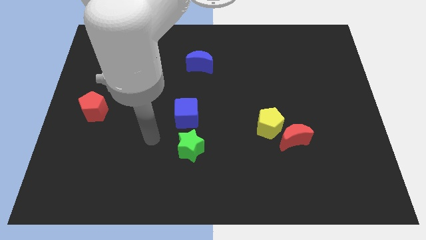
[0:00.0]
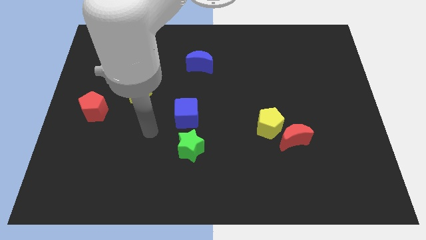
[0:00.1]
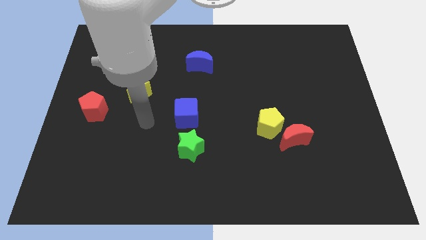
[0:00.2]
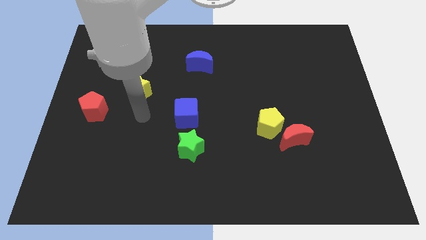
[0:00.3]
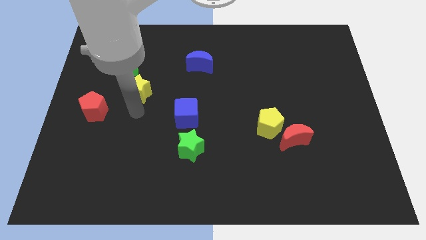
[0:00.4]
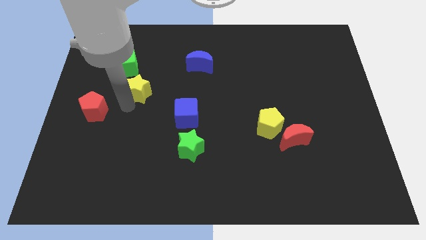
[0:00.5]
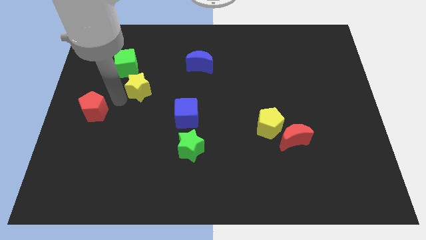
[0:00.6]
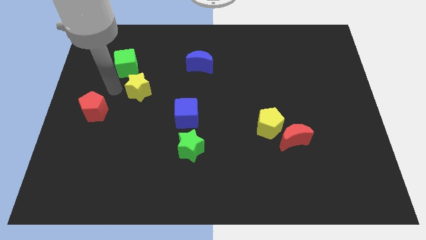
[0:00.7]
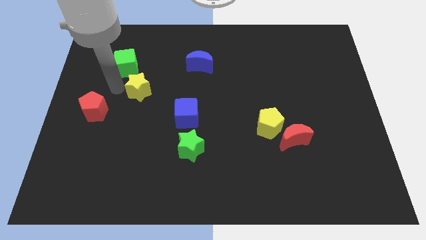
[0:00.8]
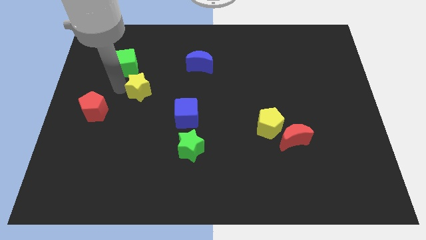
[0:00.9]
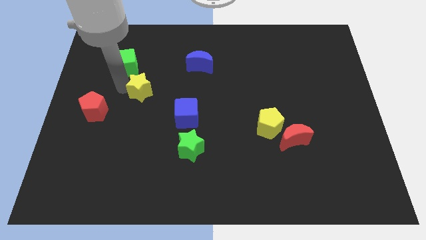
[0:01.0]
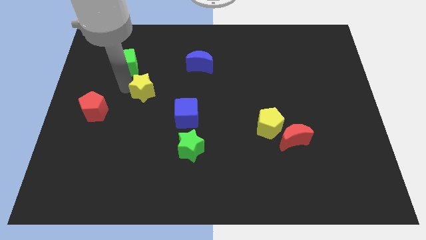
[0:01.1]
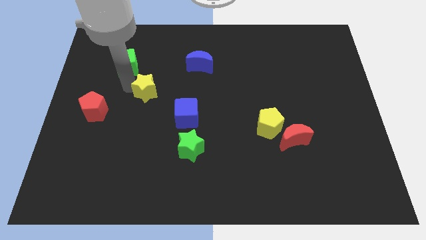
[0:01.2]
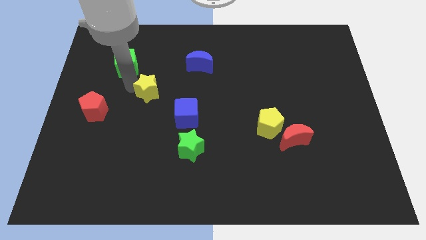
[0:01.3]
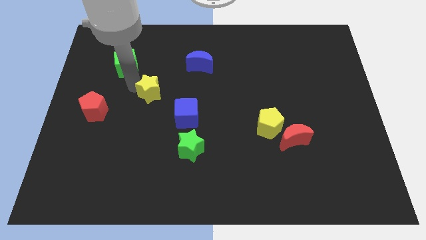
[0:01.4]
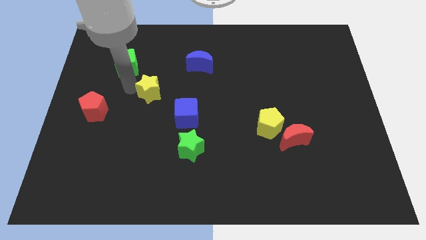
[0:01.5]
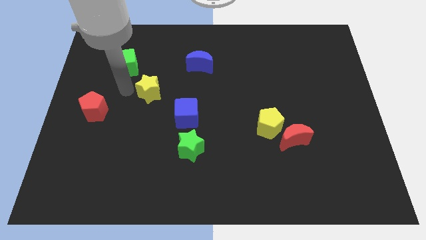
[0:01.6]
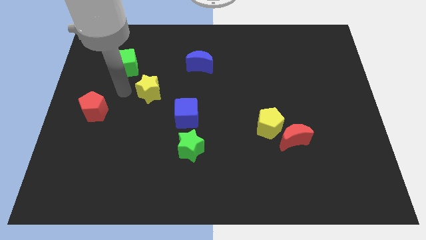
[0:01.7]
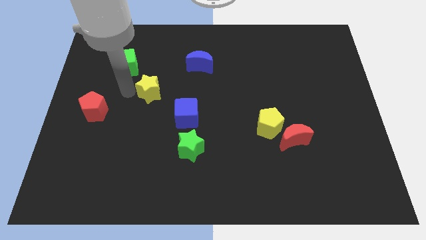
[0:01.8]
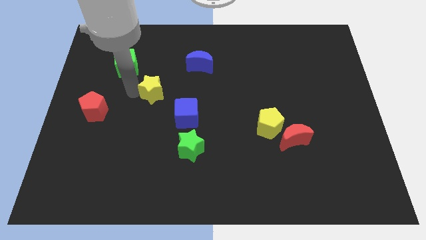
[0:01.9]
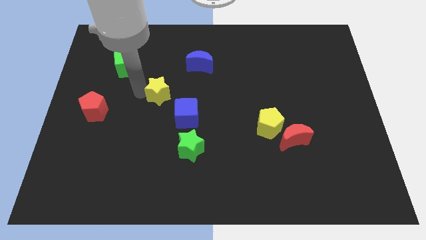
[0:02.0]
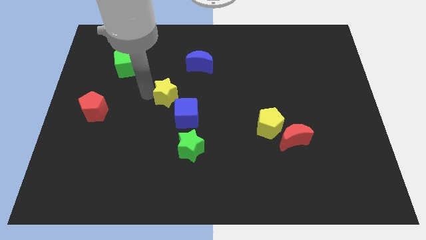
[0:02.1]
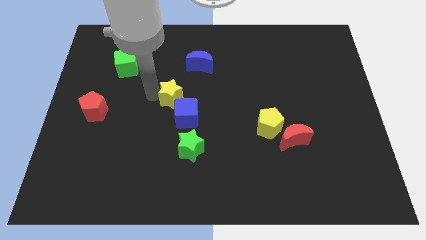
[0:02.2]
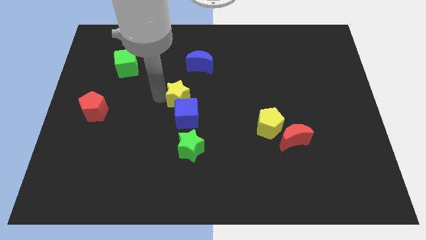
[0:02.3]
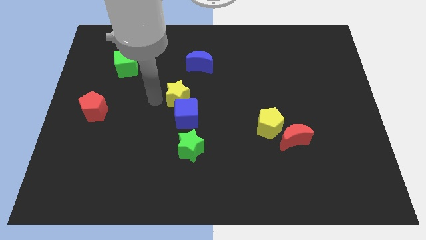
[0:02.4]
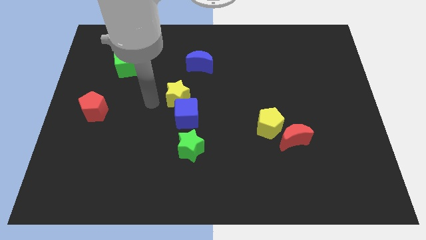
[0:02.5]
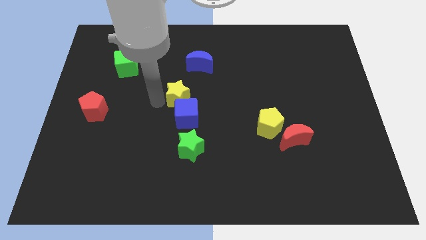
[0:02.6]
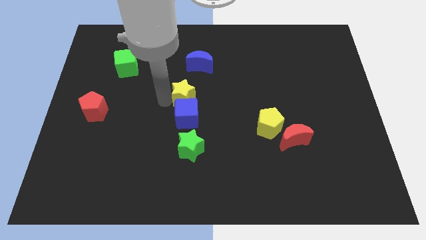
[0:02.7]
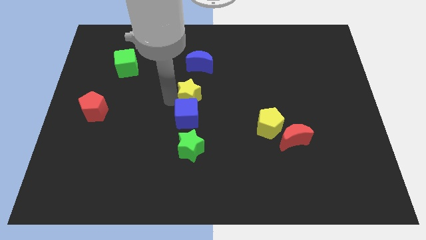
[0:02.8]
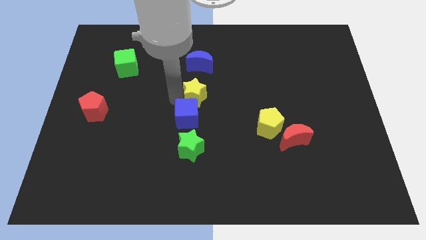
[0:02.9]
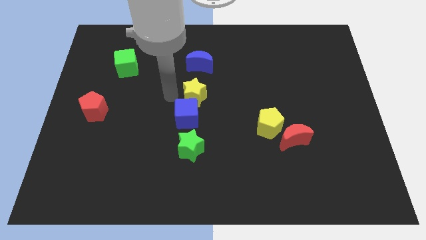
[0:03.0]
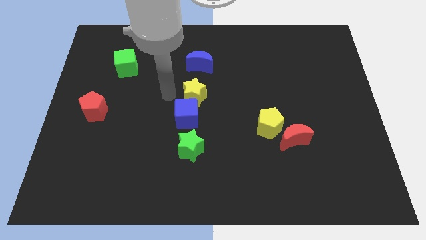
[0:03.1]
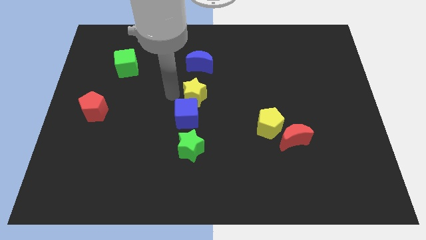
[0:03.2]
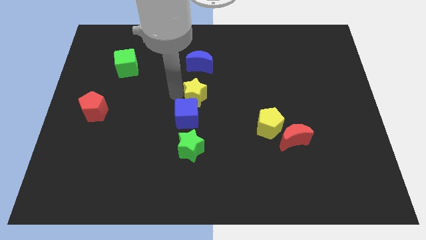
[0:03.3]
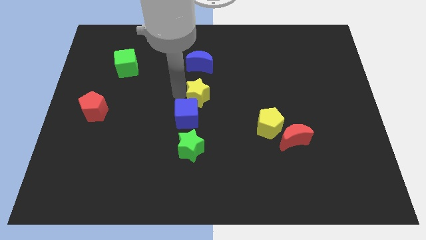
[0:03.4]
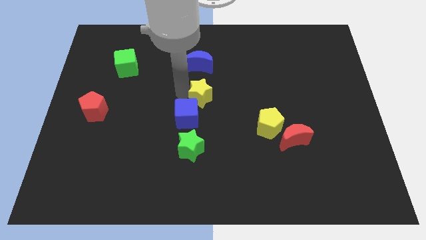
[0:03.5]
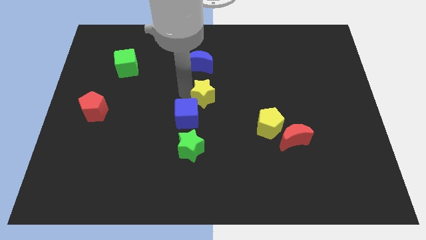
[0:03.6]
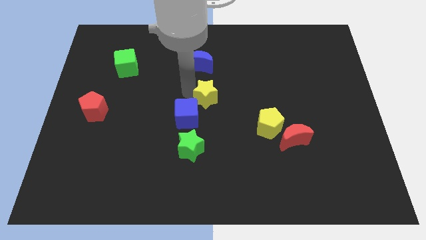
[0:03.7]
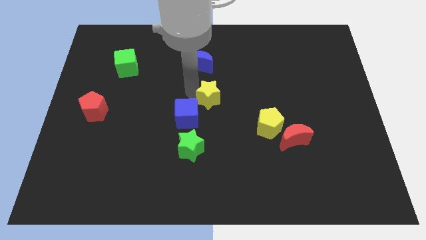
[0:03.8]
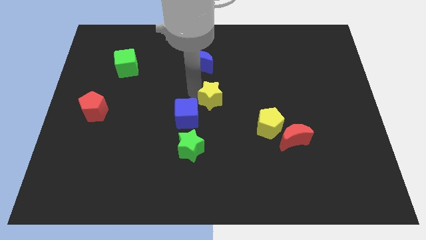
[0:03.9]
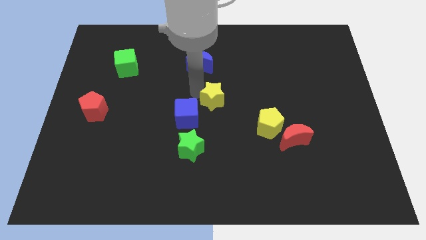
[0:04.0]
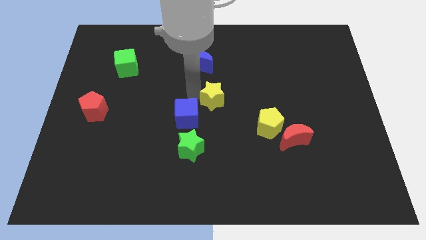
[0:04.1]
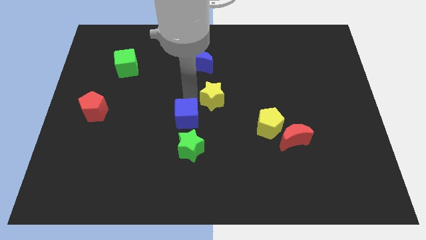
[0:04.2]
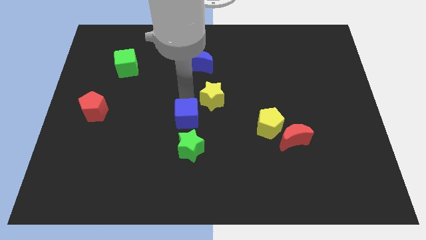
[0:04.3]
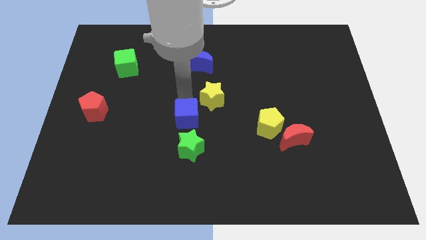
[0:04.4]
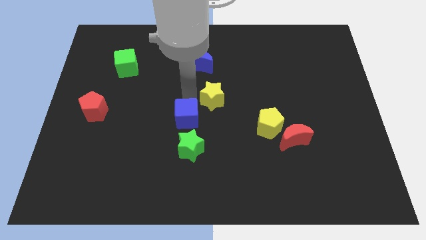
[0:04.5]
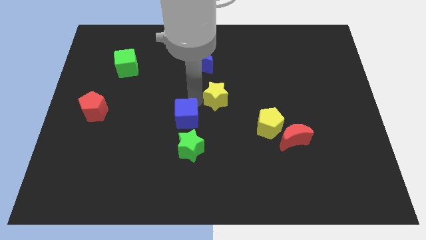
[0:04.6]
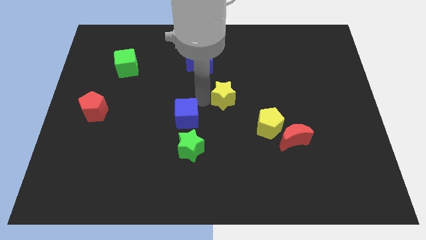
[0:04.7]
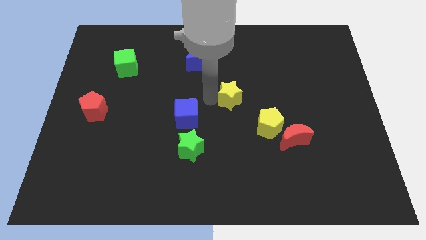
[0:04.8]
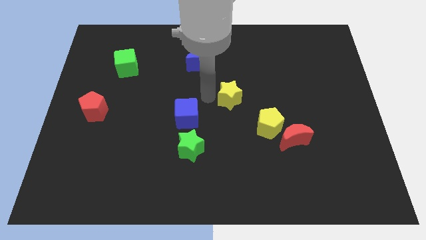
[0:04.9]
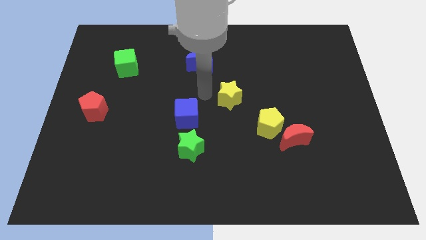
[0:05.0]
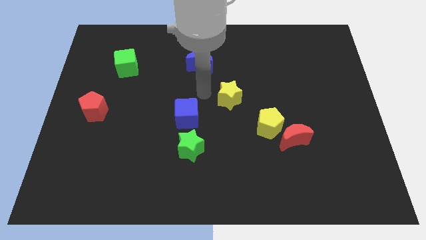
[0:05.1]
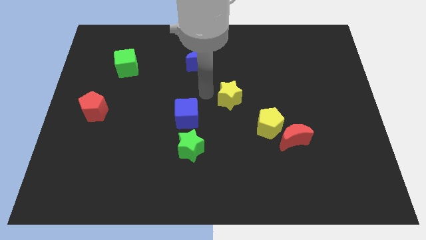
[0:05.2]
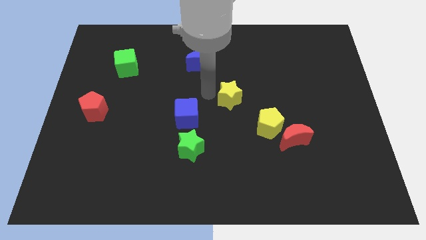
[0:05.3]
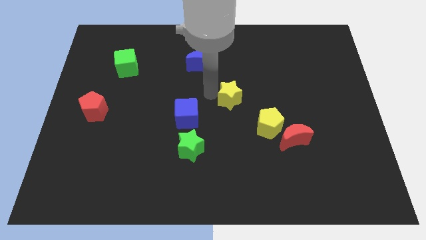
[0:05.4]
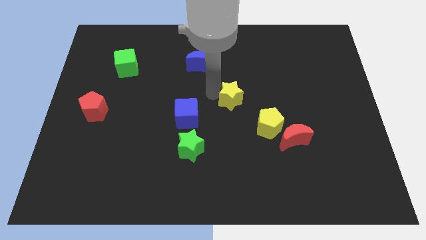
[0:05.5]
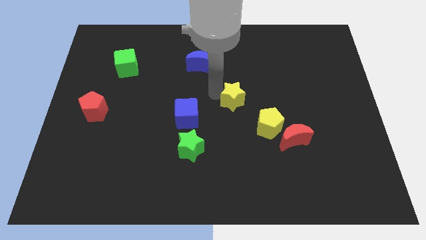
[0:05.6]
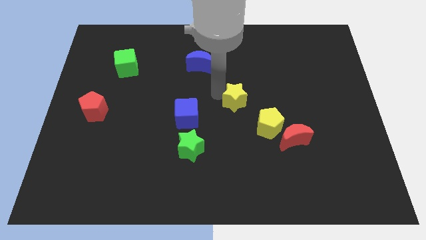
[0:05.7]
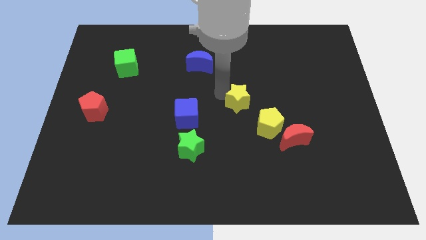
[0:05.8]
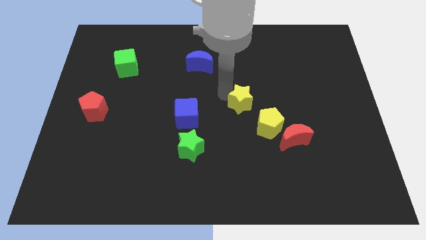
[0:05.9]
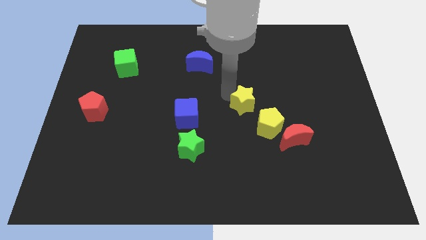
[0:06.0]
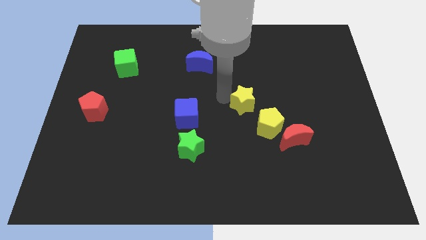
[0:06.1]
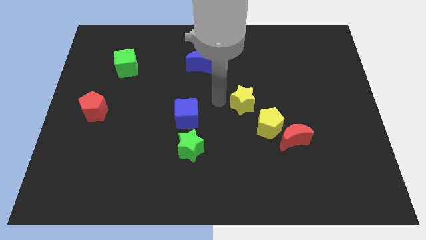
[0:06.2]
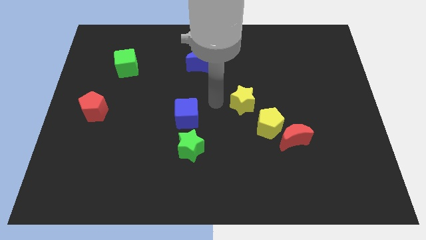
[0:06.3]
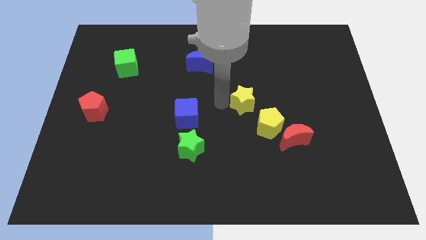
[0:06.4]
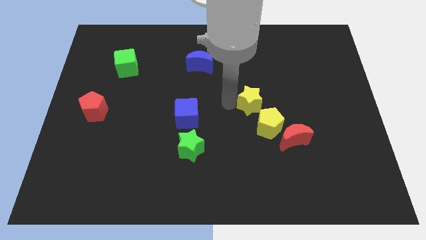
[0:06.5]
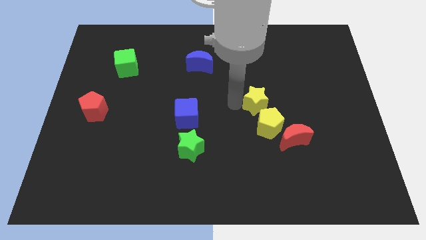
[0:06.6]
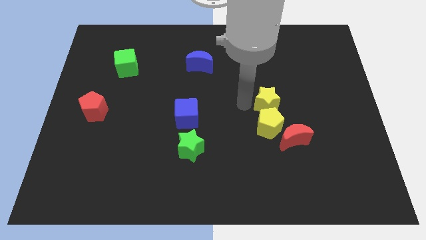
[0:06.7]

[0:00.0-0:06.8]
move the yellow star to the top right of the yellow pentagon
